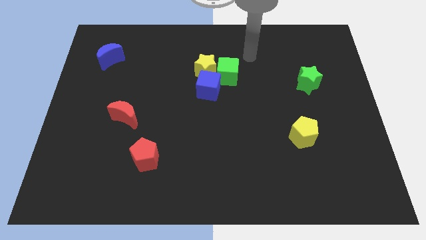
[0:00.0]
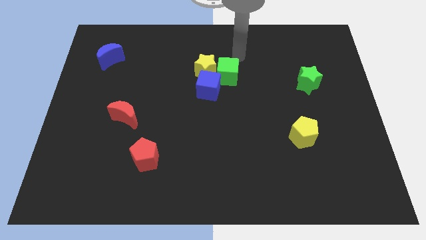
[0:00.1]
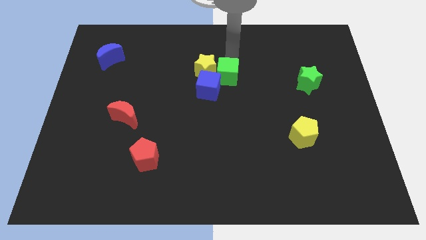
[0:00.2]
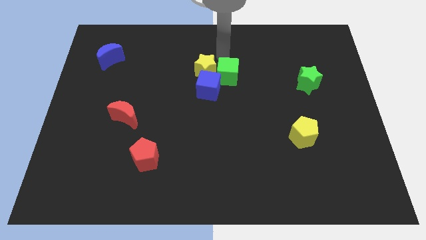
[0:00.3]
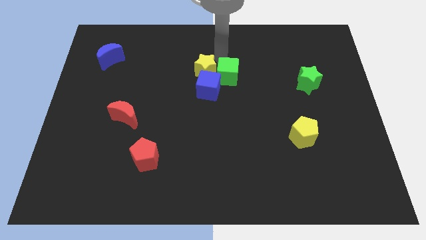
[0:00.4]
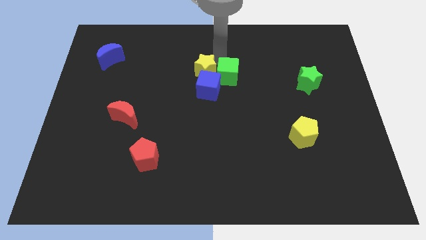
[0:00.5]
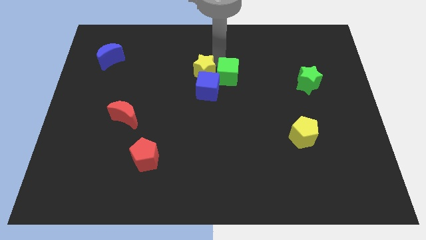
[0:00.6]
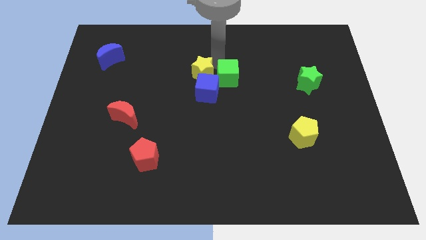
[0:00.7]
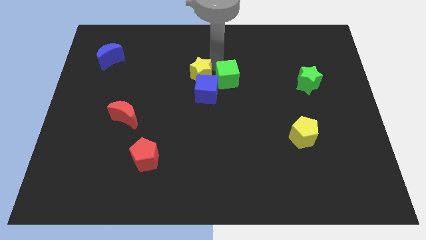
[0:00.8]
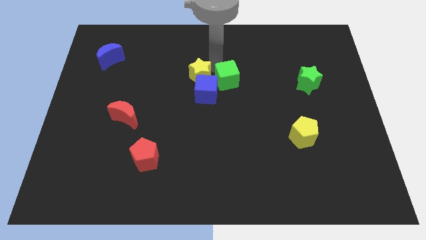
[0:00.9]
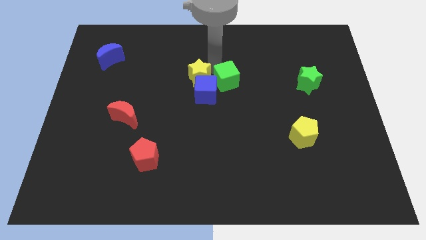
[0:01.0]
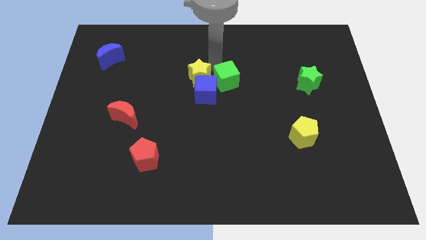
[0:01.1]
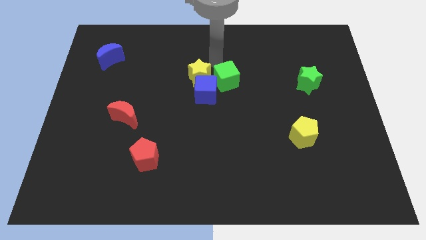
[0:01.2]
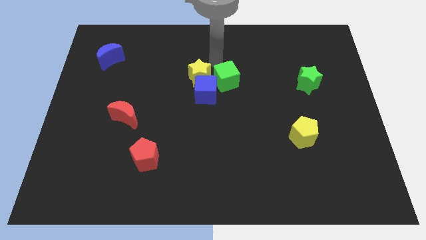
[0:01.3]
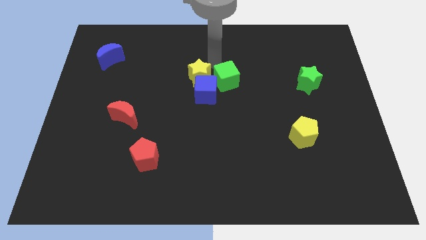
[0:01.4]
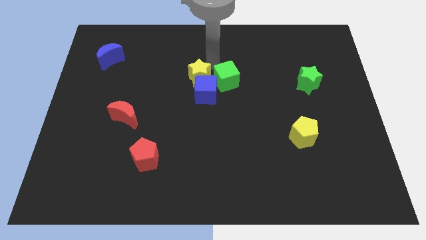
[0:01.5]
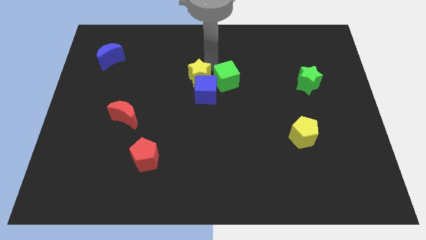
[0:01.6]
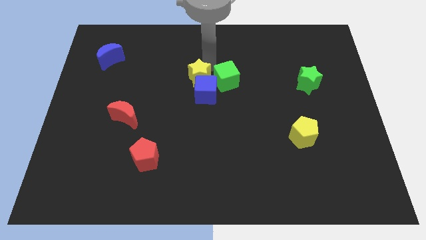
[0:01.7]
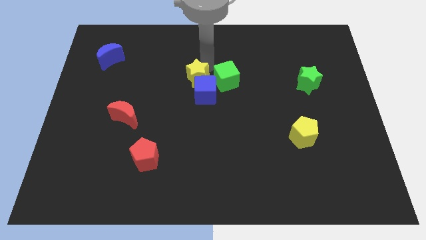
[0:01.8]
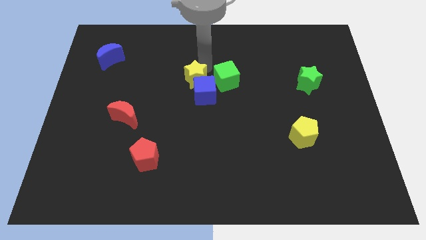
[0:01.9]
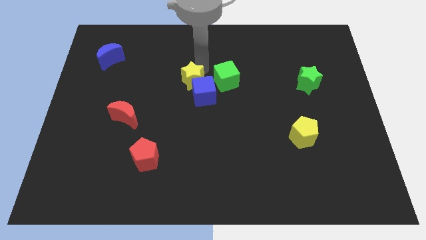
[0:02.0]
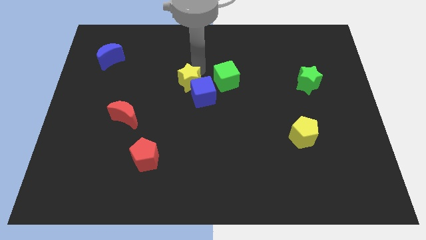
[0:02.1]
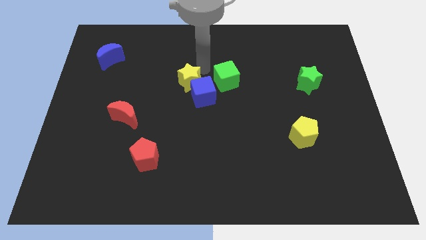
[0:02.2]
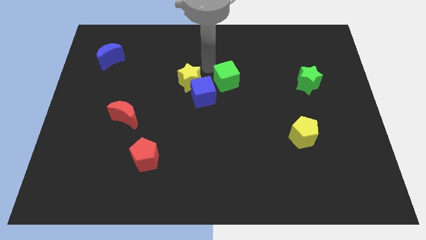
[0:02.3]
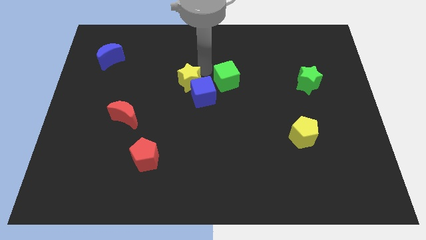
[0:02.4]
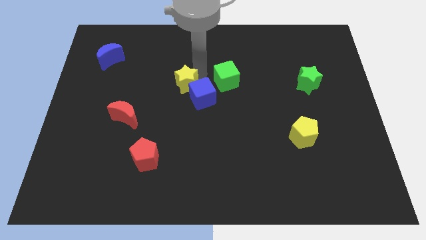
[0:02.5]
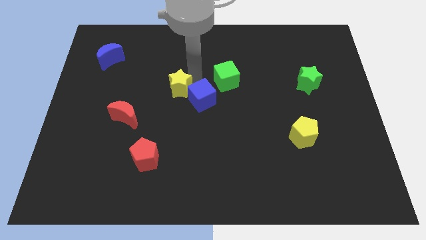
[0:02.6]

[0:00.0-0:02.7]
move the yellow star a little down and then to the left

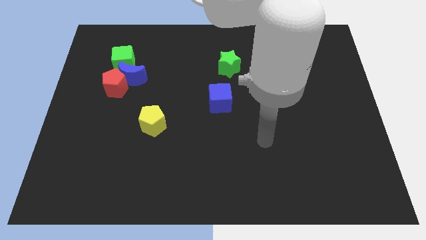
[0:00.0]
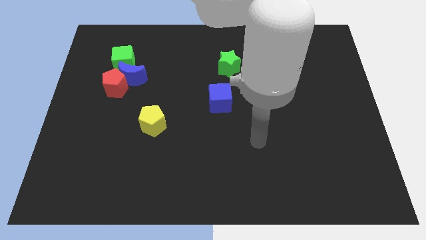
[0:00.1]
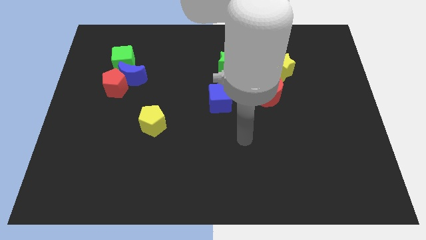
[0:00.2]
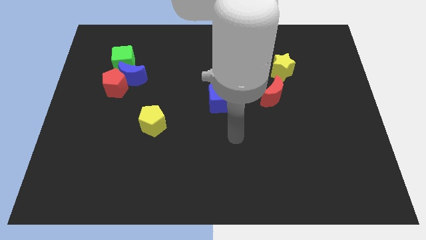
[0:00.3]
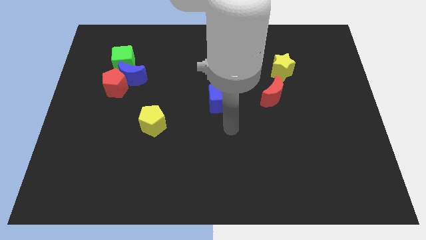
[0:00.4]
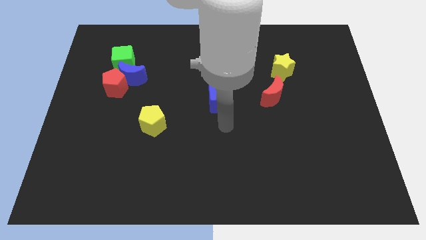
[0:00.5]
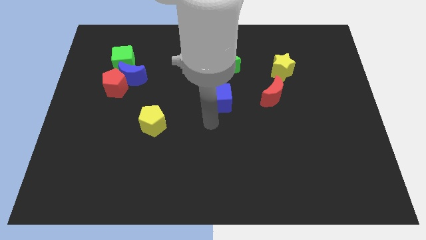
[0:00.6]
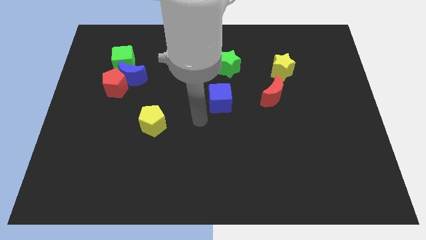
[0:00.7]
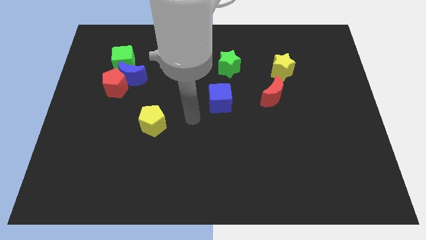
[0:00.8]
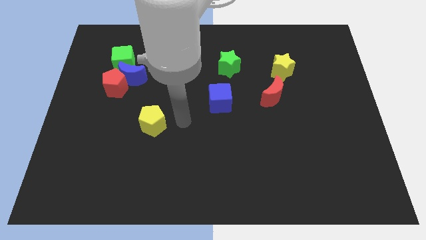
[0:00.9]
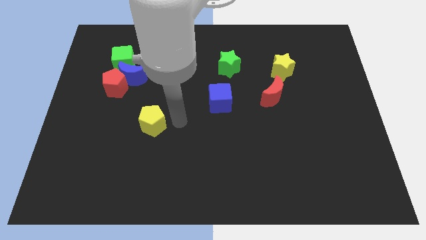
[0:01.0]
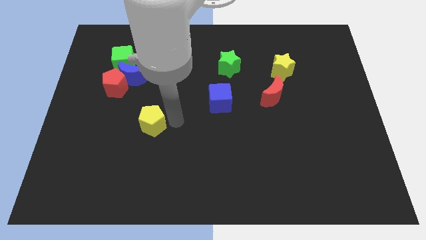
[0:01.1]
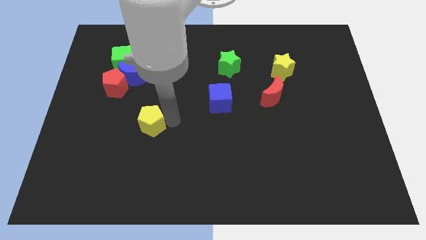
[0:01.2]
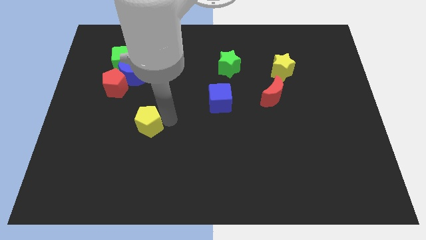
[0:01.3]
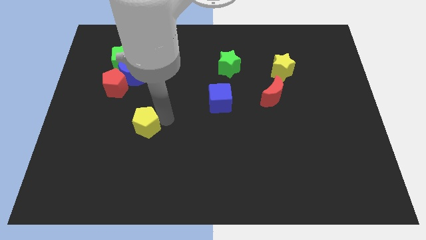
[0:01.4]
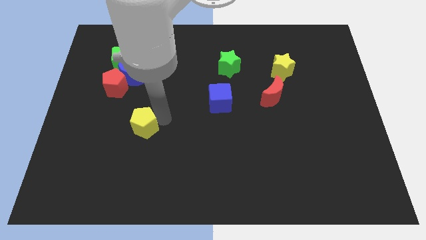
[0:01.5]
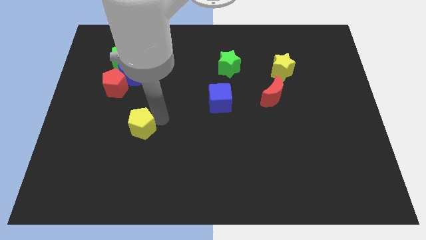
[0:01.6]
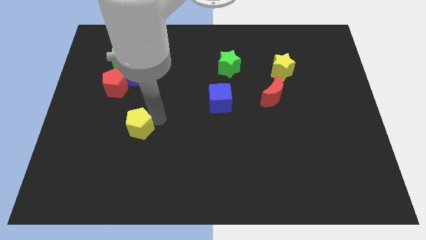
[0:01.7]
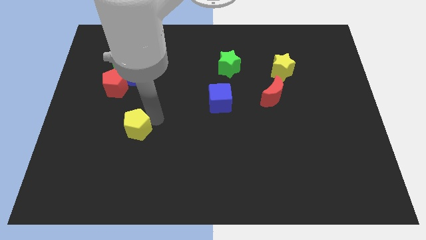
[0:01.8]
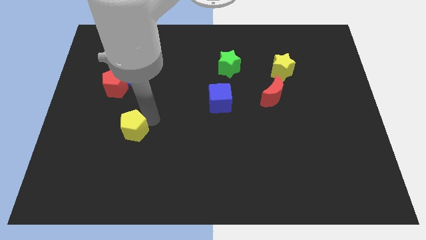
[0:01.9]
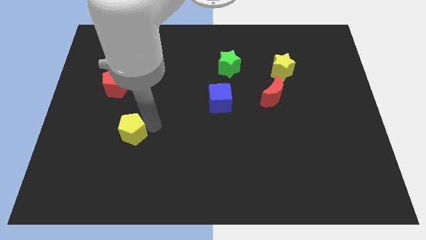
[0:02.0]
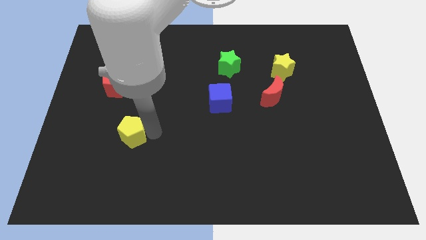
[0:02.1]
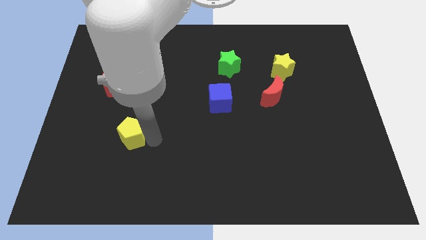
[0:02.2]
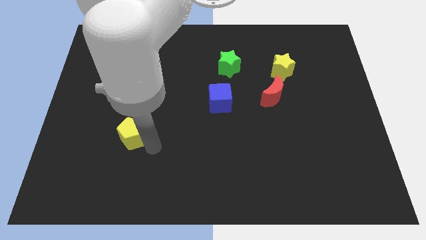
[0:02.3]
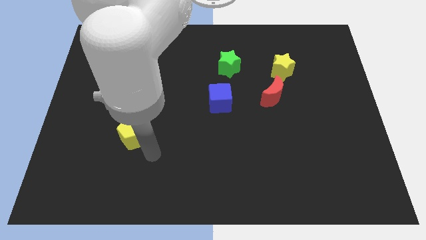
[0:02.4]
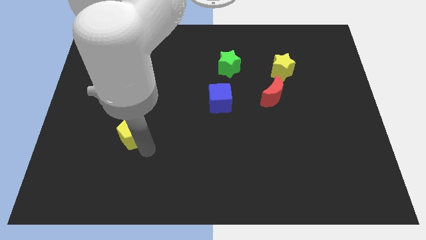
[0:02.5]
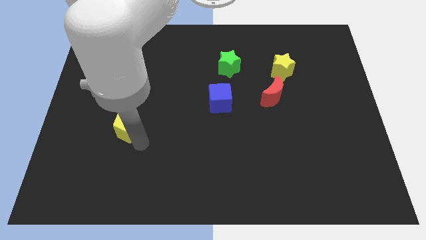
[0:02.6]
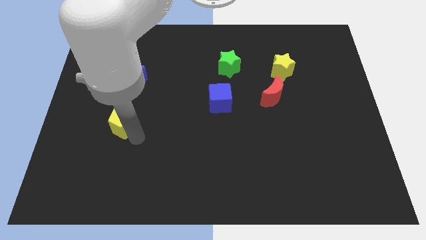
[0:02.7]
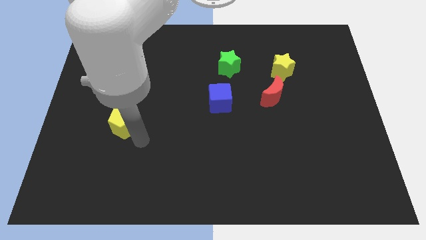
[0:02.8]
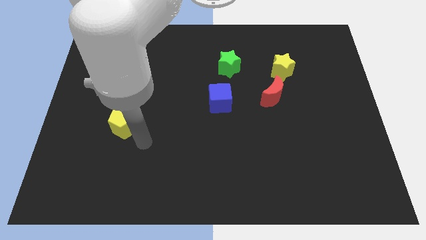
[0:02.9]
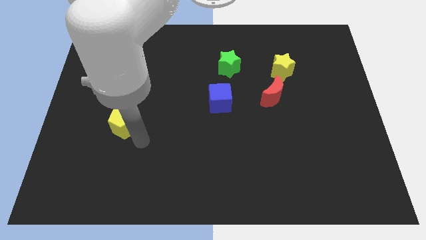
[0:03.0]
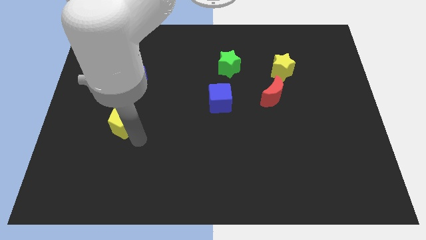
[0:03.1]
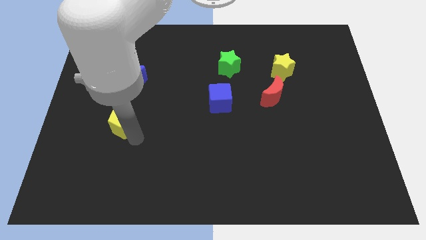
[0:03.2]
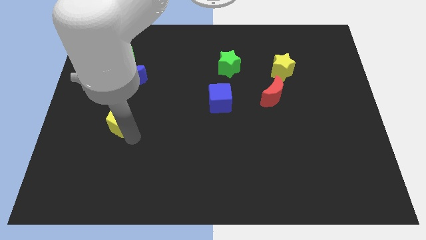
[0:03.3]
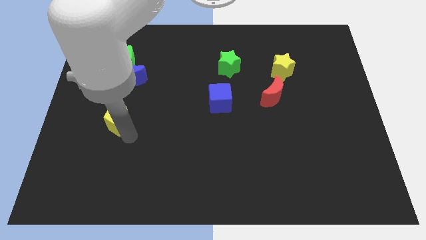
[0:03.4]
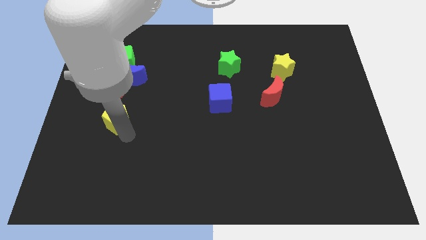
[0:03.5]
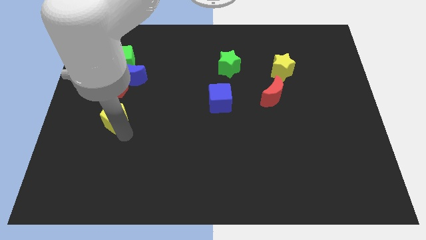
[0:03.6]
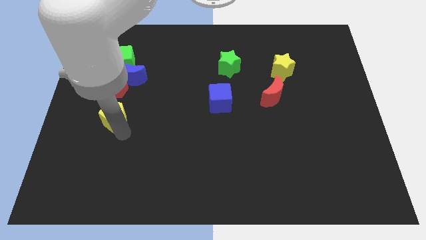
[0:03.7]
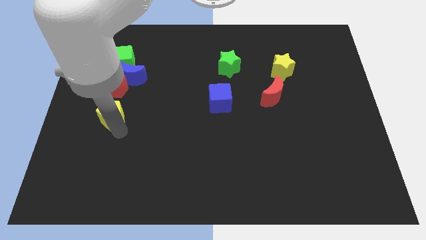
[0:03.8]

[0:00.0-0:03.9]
move the yellow pentagon somewhat upwards and to the left

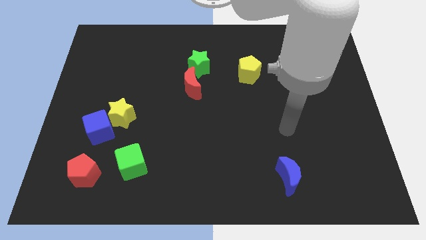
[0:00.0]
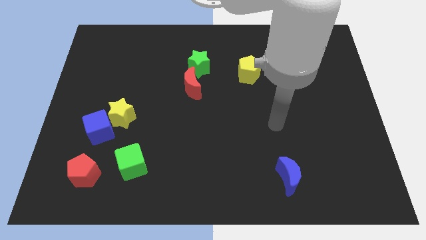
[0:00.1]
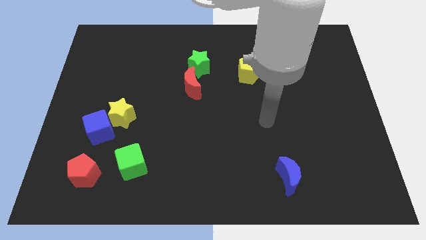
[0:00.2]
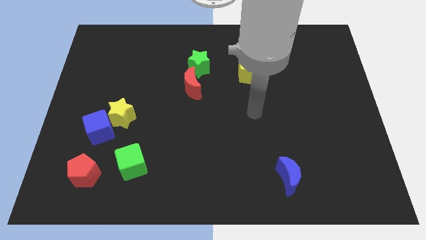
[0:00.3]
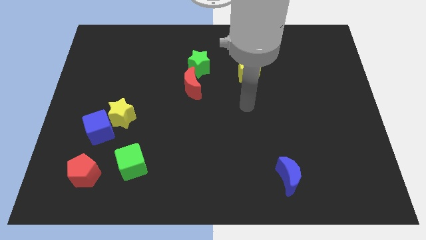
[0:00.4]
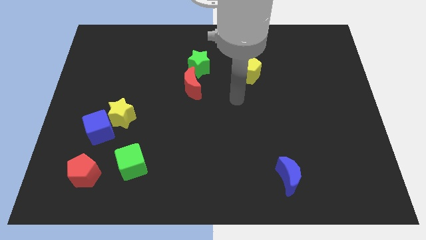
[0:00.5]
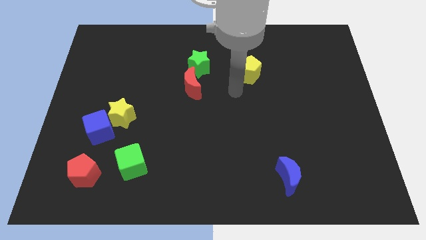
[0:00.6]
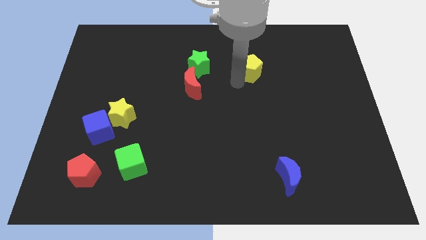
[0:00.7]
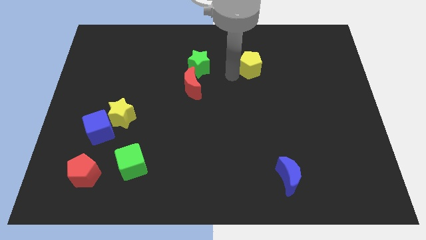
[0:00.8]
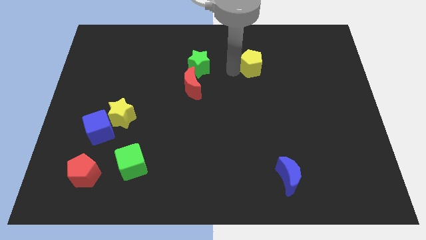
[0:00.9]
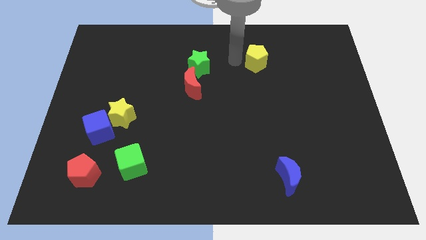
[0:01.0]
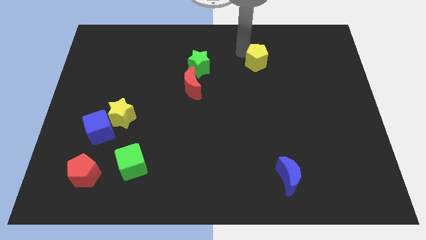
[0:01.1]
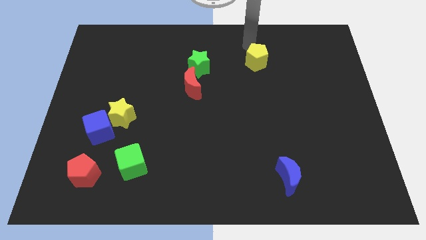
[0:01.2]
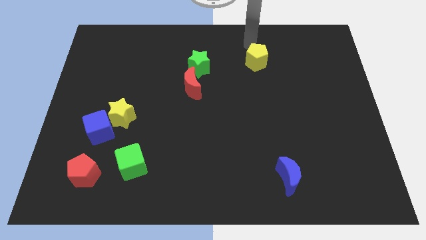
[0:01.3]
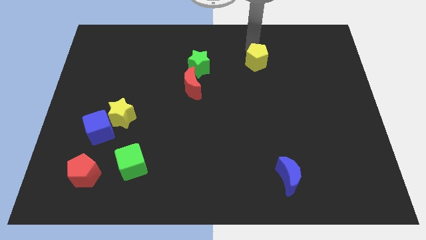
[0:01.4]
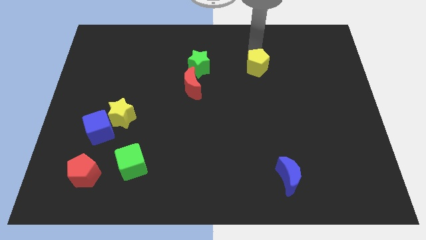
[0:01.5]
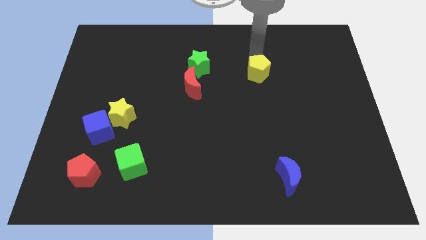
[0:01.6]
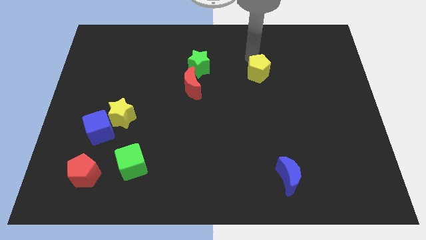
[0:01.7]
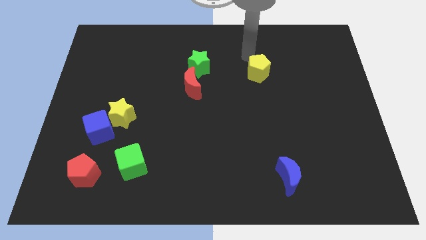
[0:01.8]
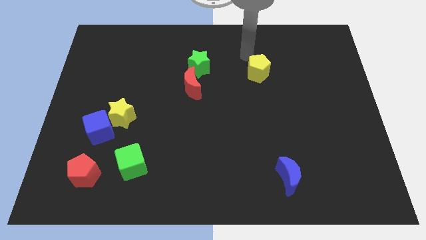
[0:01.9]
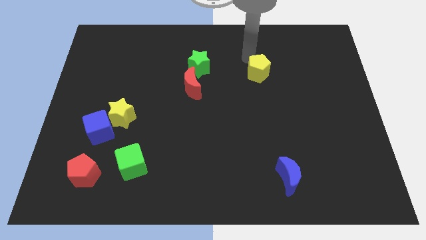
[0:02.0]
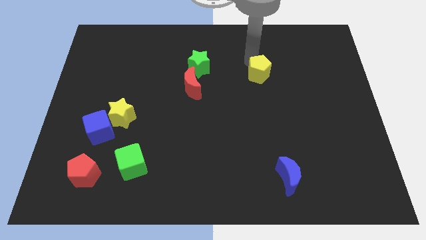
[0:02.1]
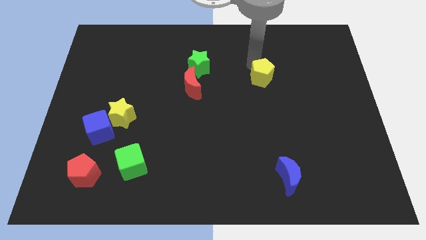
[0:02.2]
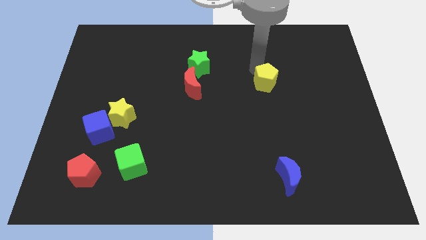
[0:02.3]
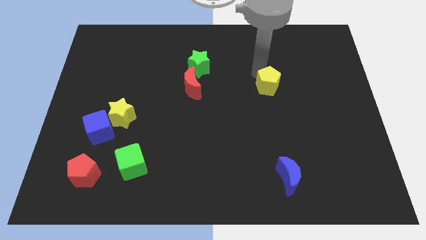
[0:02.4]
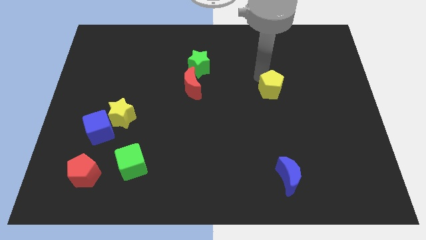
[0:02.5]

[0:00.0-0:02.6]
slightly push the yellow pentagon diagonally down and right
